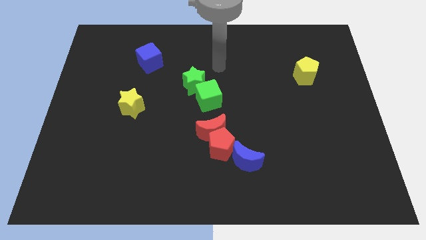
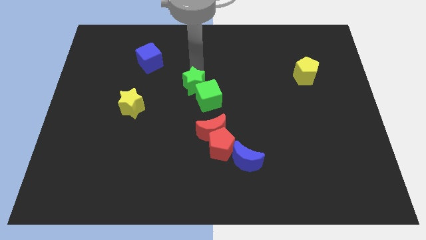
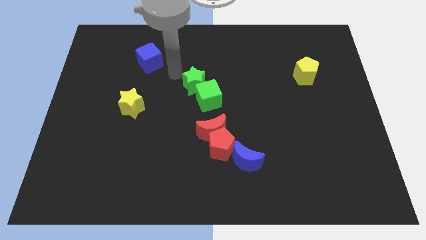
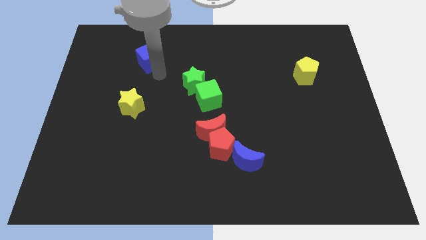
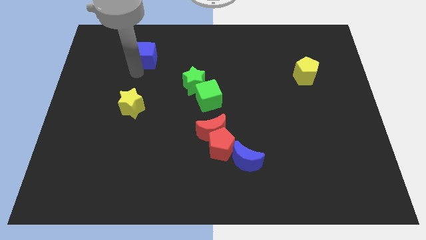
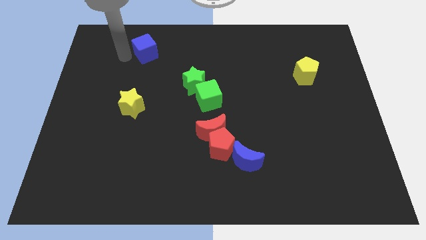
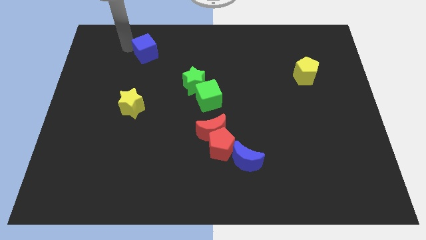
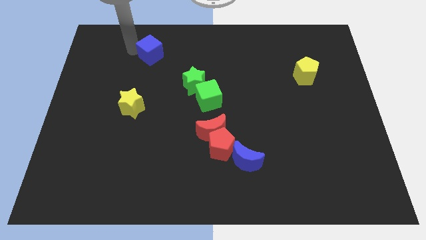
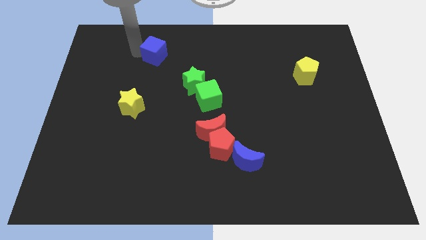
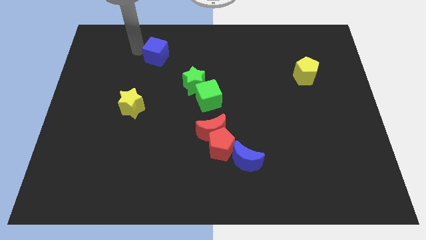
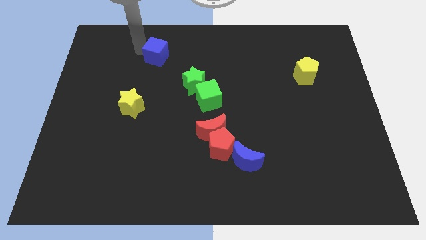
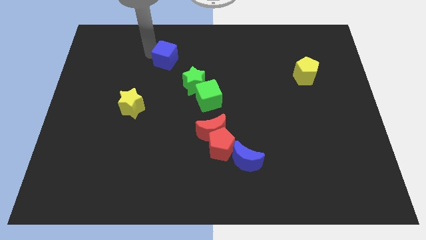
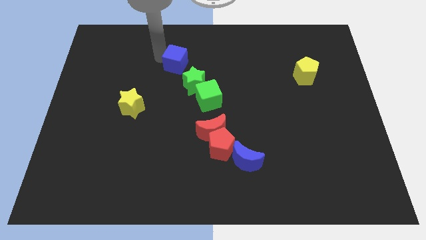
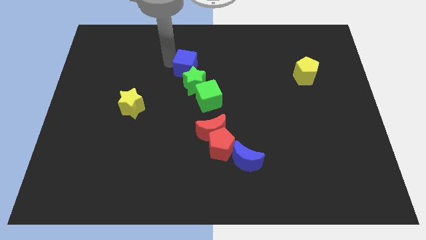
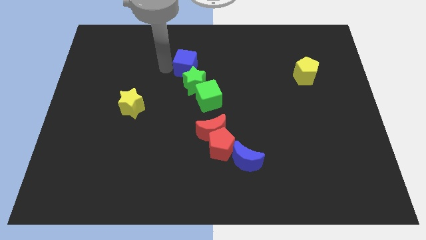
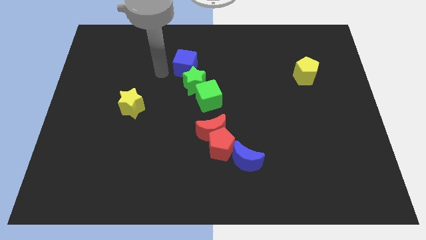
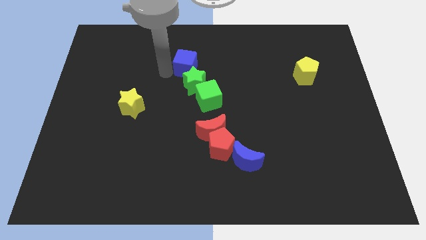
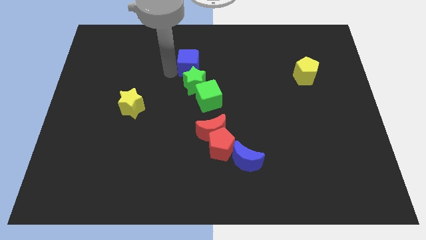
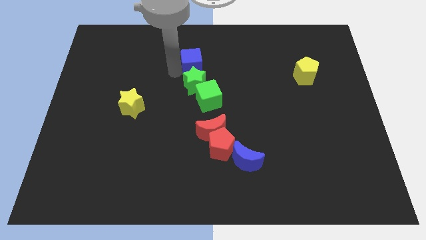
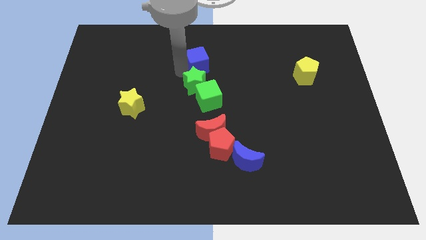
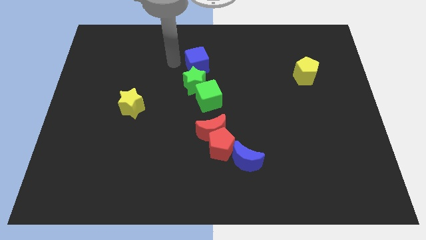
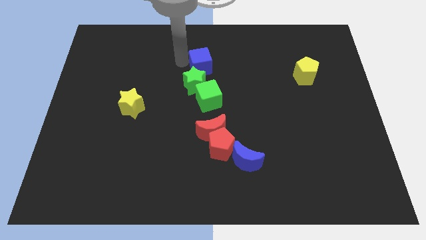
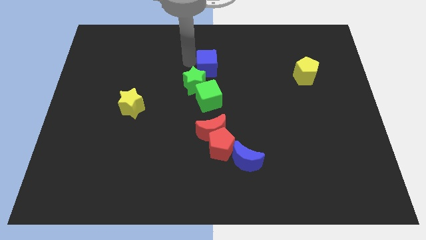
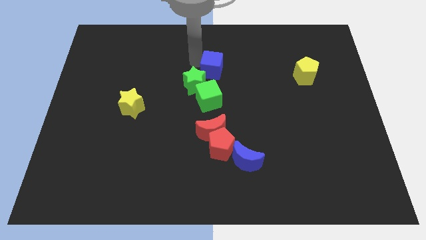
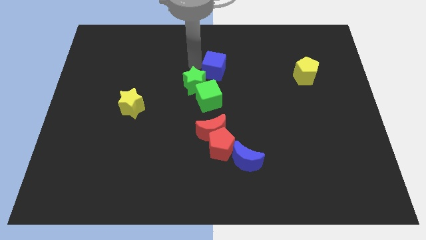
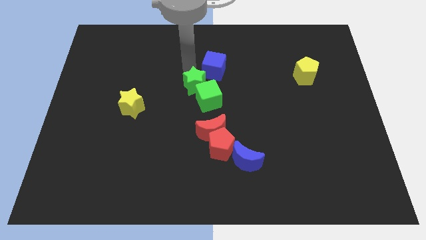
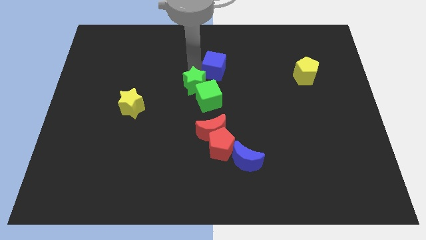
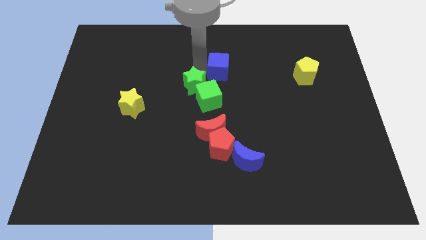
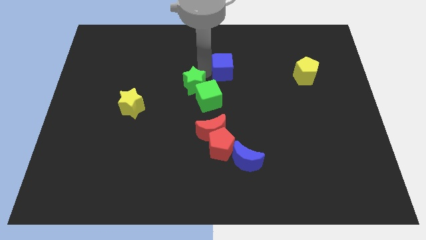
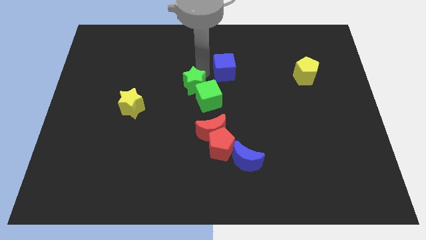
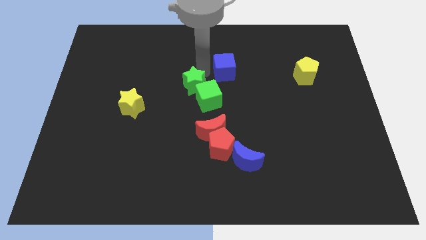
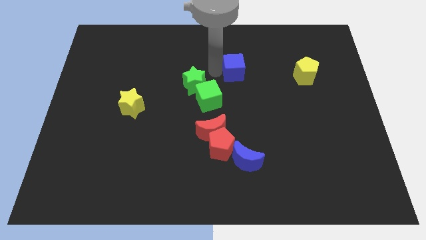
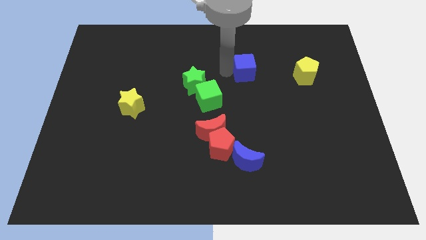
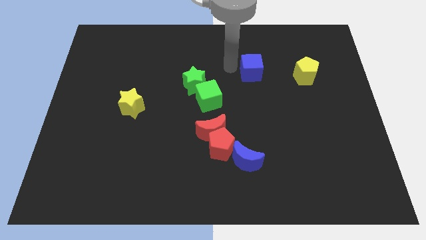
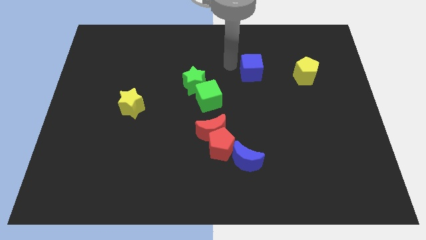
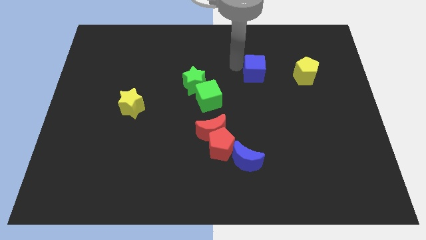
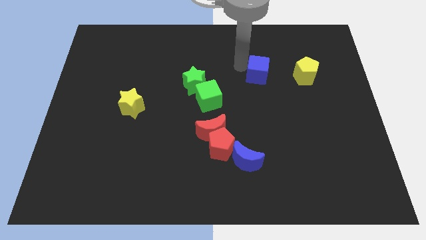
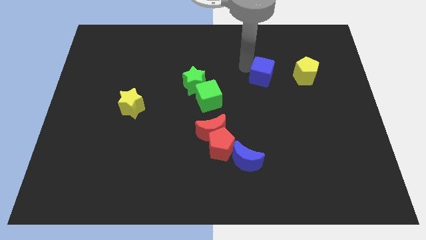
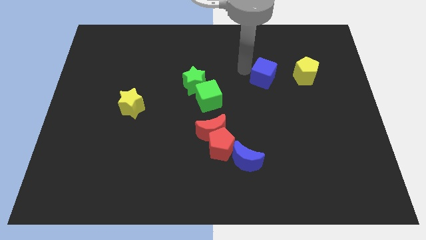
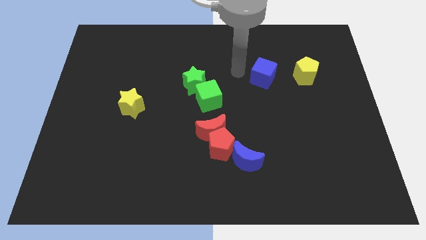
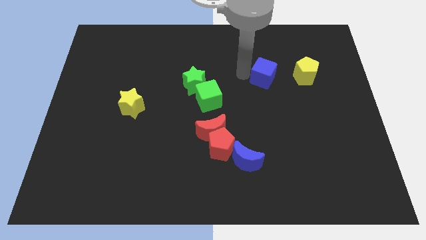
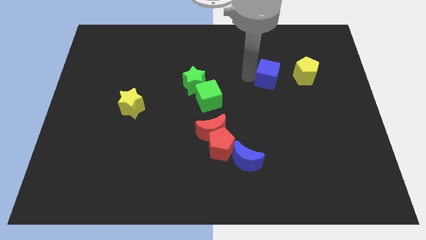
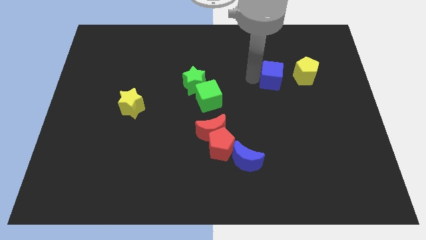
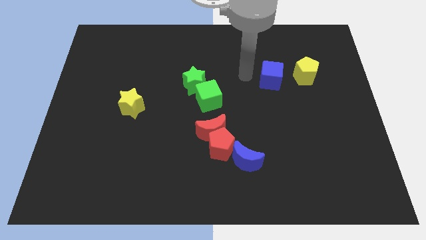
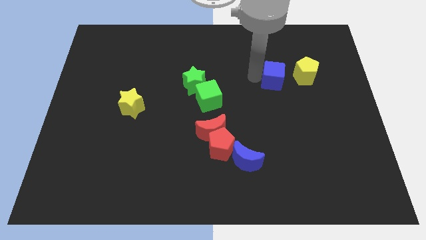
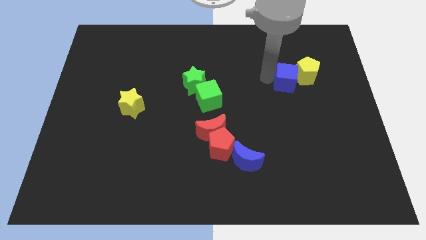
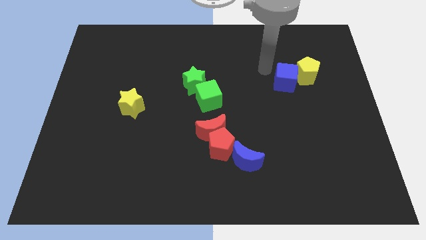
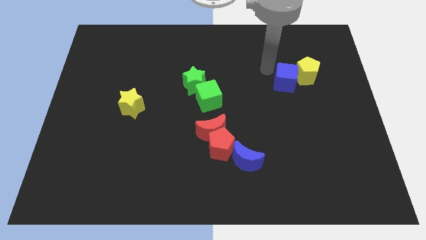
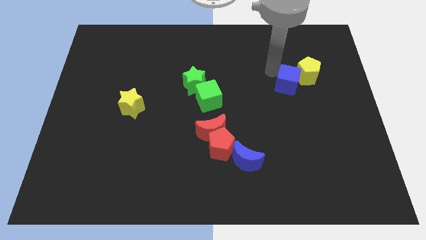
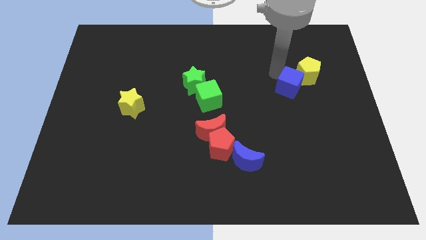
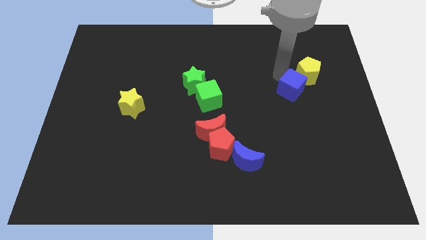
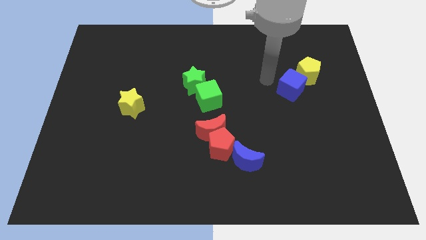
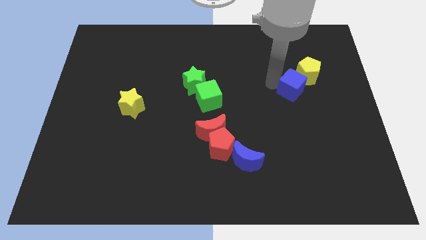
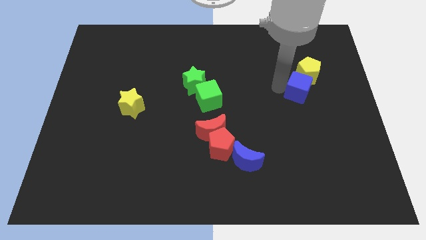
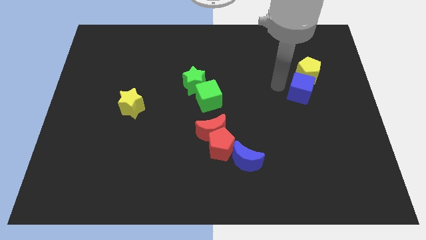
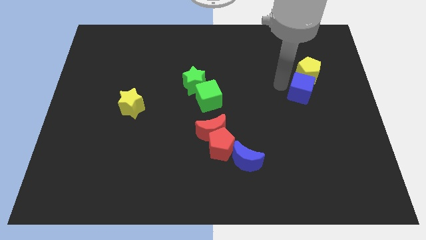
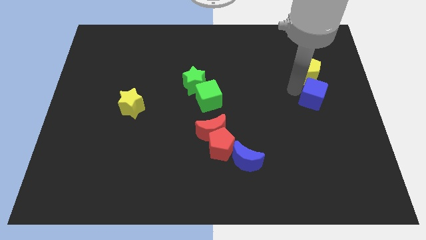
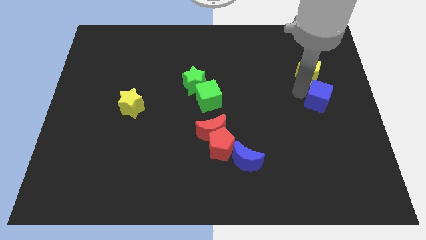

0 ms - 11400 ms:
slide the blue cube to the center right
